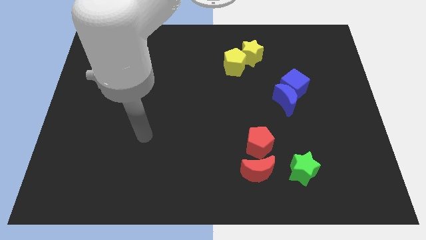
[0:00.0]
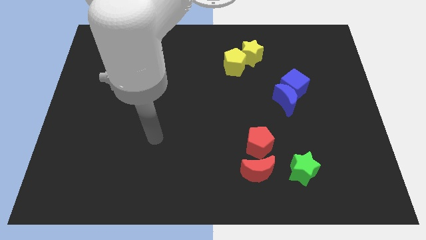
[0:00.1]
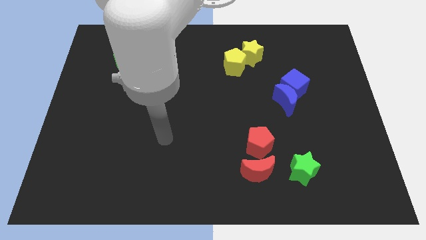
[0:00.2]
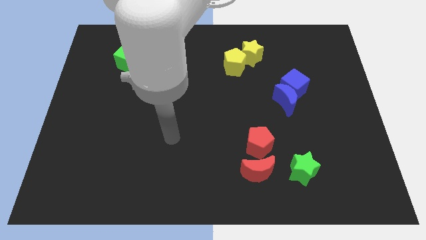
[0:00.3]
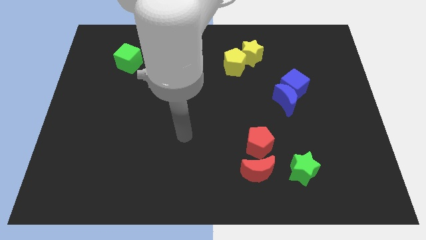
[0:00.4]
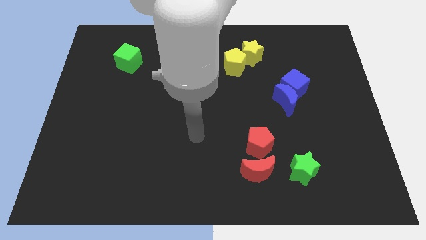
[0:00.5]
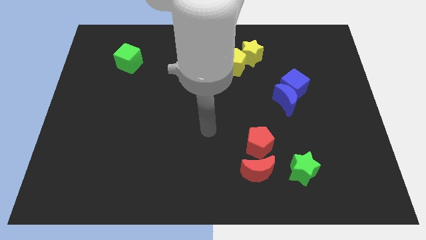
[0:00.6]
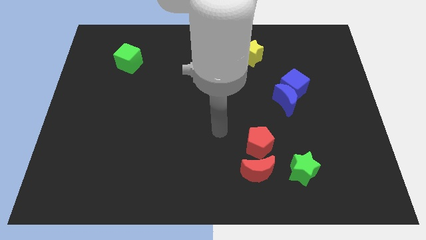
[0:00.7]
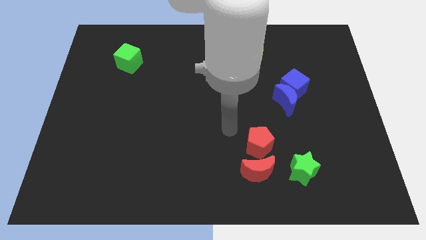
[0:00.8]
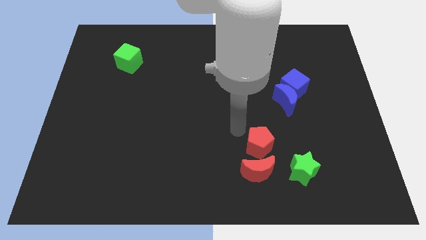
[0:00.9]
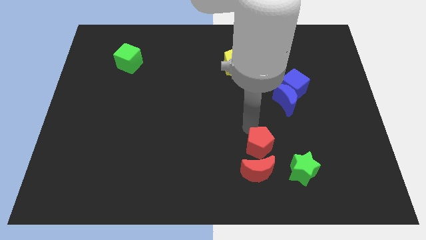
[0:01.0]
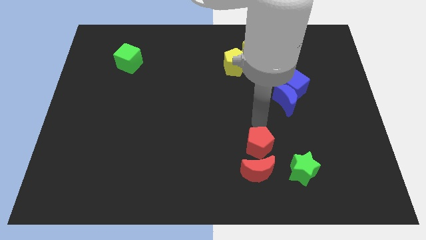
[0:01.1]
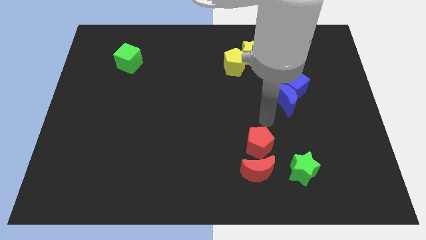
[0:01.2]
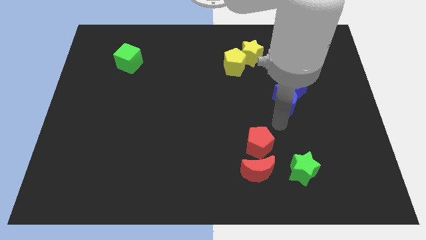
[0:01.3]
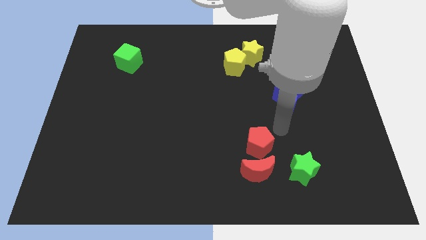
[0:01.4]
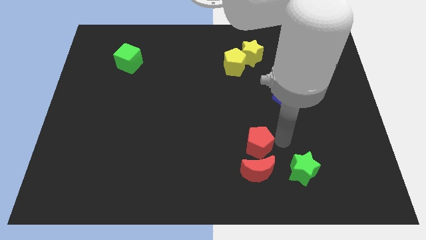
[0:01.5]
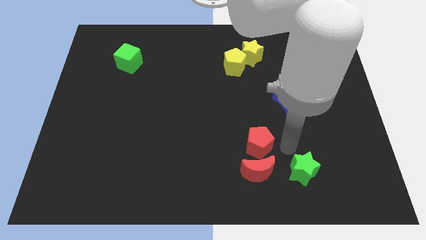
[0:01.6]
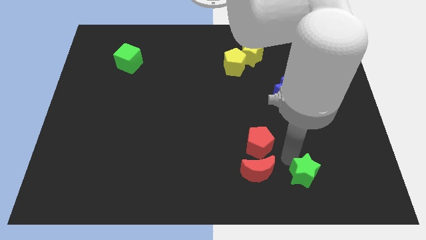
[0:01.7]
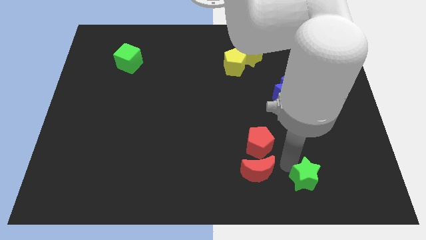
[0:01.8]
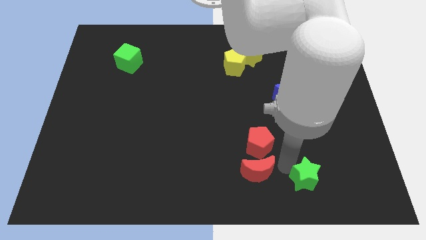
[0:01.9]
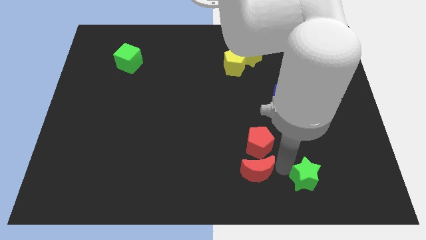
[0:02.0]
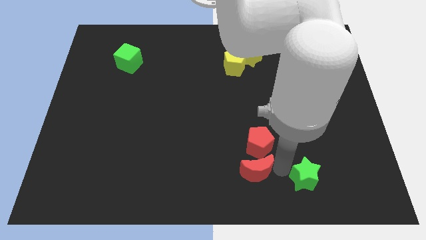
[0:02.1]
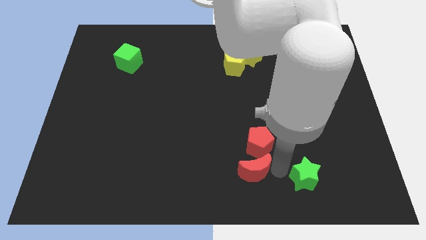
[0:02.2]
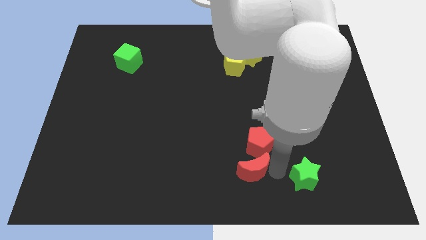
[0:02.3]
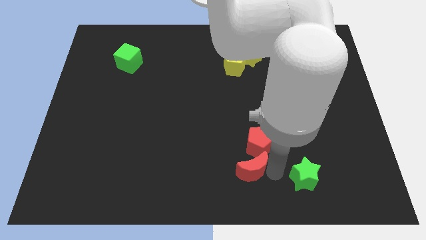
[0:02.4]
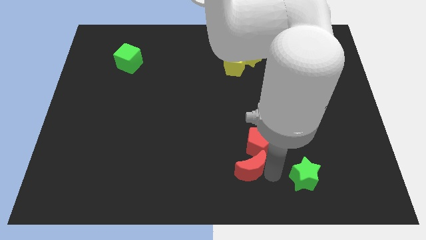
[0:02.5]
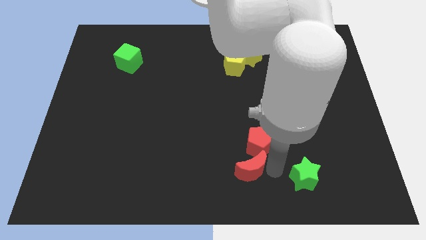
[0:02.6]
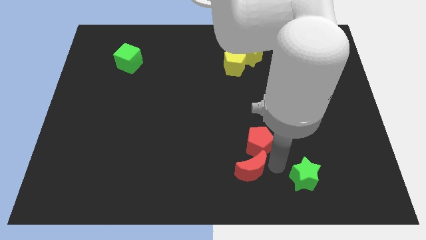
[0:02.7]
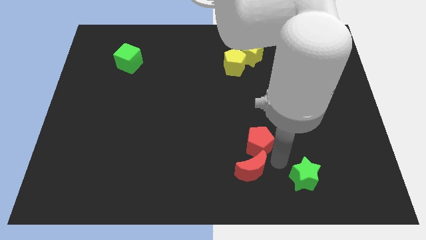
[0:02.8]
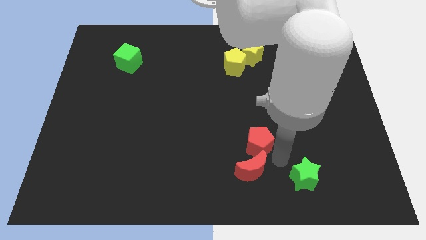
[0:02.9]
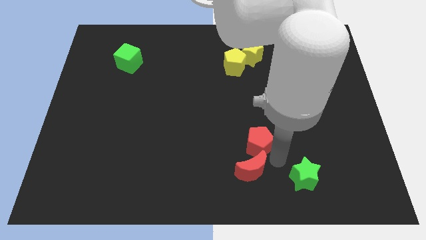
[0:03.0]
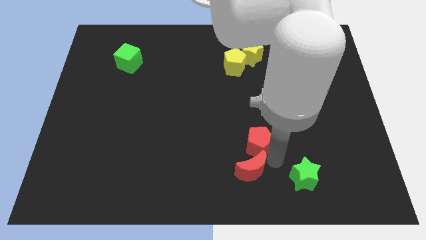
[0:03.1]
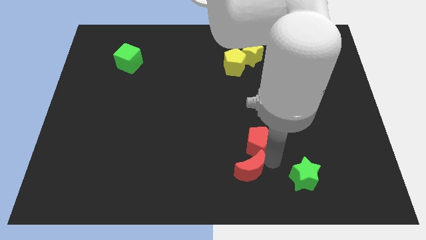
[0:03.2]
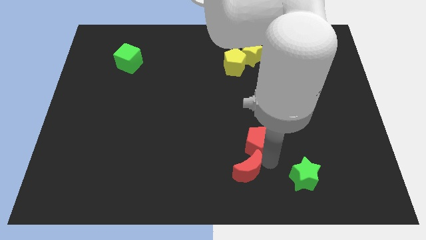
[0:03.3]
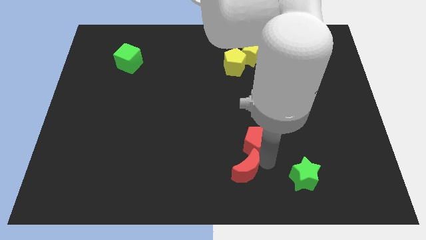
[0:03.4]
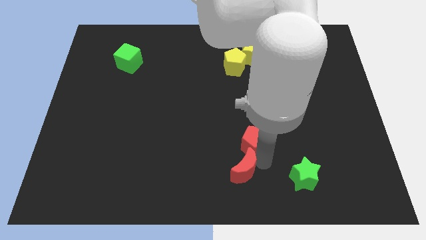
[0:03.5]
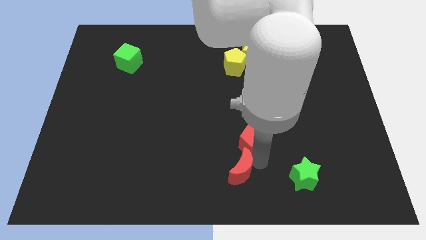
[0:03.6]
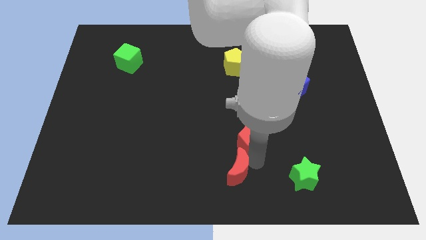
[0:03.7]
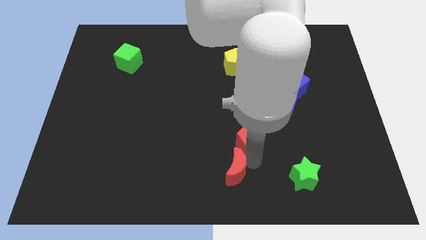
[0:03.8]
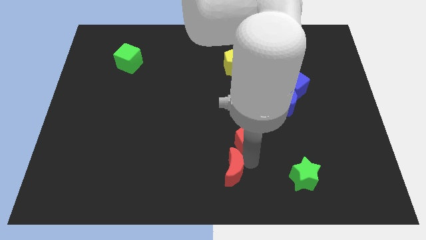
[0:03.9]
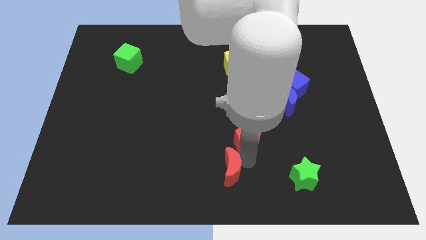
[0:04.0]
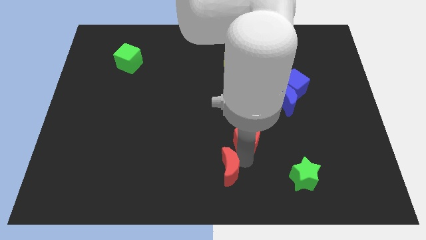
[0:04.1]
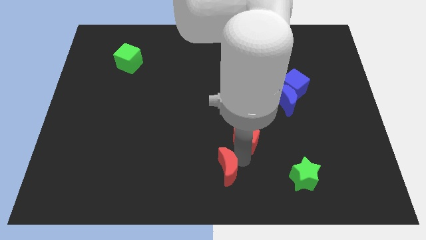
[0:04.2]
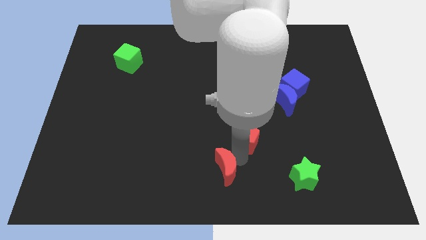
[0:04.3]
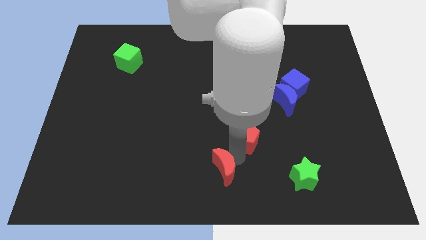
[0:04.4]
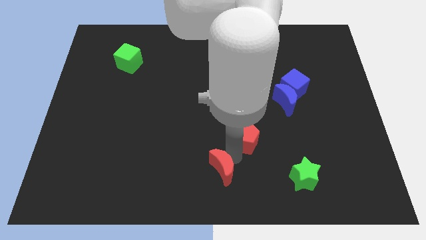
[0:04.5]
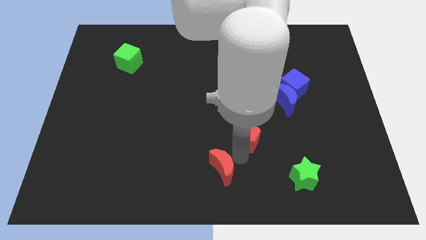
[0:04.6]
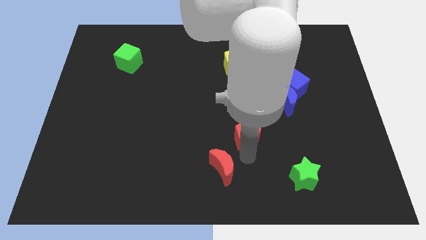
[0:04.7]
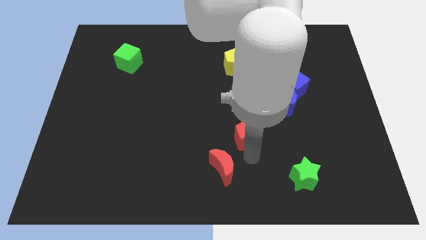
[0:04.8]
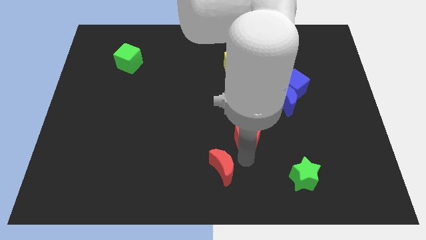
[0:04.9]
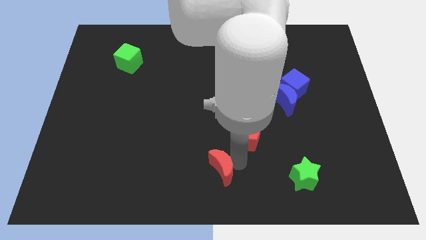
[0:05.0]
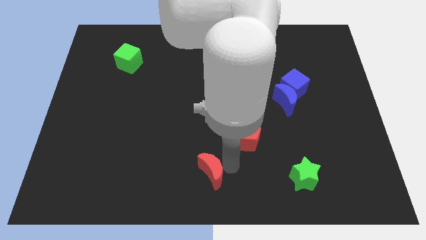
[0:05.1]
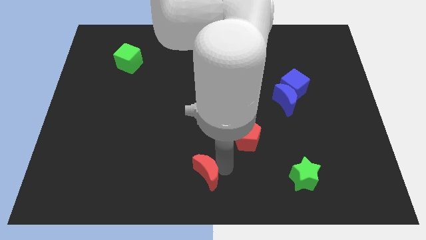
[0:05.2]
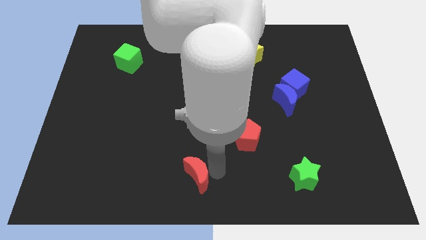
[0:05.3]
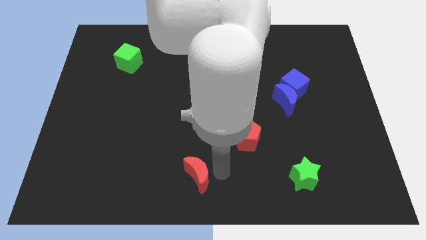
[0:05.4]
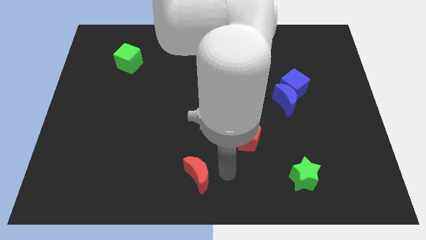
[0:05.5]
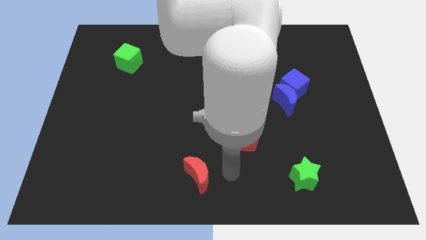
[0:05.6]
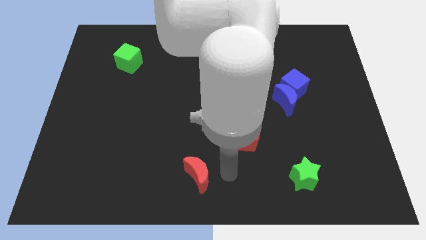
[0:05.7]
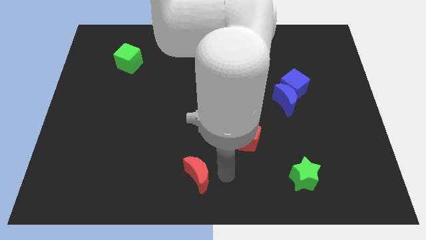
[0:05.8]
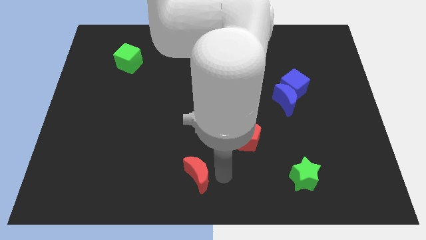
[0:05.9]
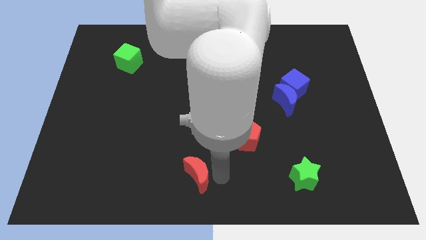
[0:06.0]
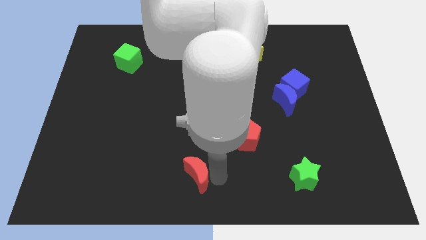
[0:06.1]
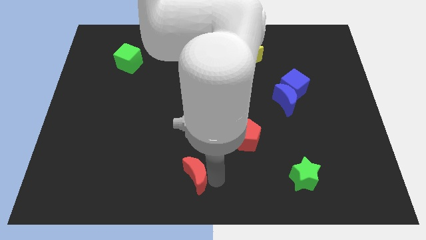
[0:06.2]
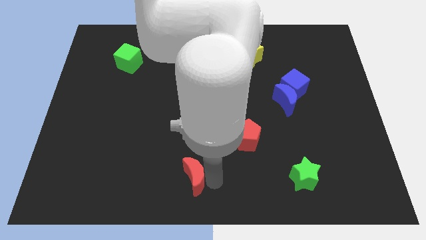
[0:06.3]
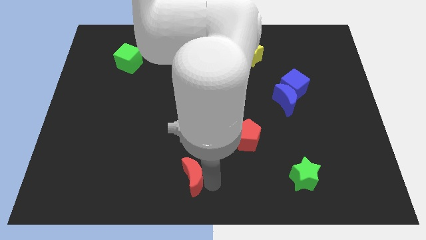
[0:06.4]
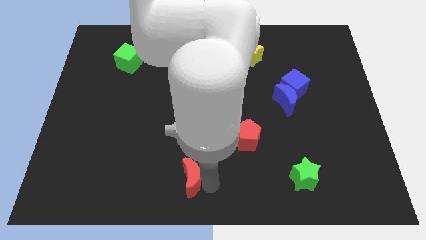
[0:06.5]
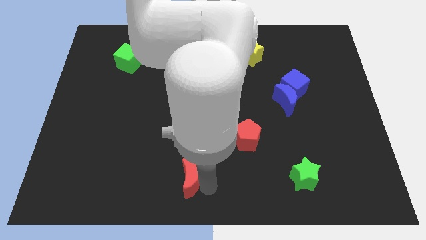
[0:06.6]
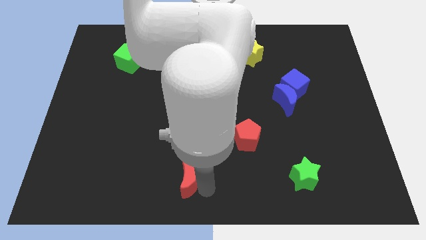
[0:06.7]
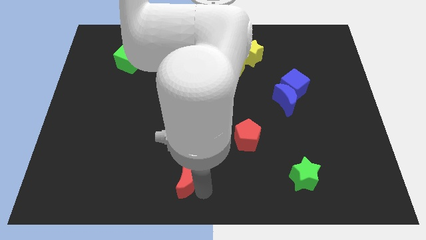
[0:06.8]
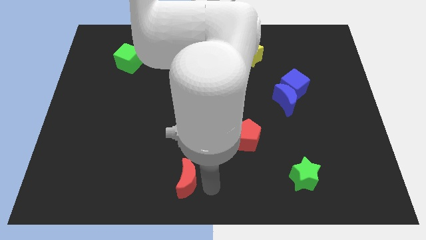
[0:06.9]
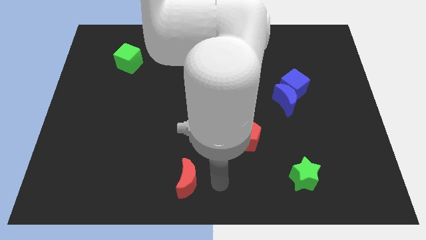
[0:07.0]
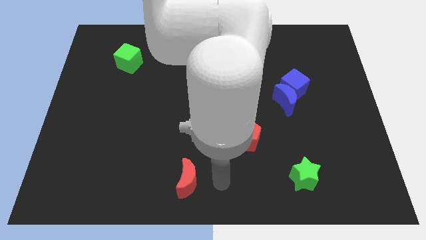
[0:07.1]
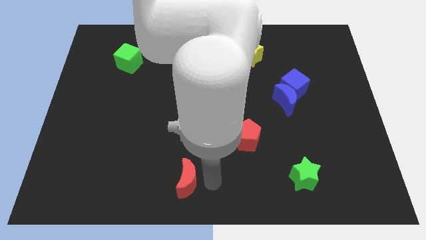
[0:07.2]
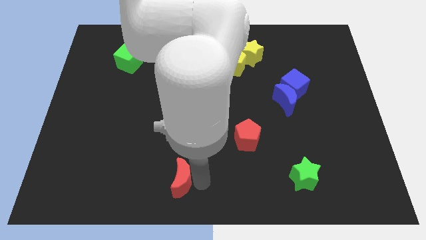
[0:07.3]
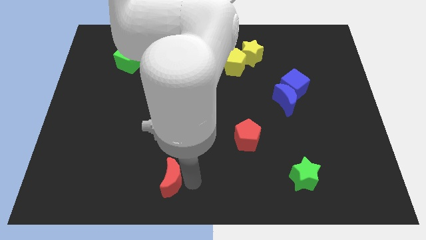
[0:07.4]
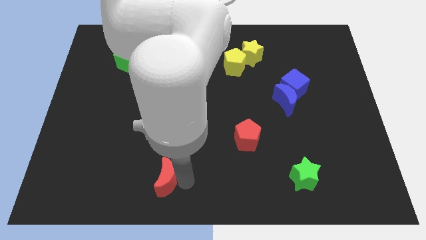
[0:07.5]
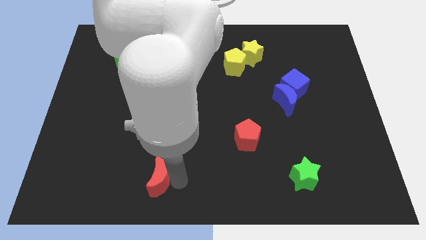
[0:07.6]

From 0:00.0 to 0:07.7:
move the red moon to the left

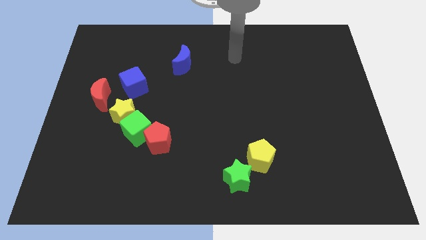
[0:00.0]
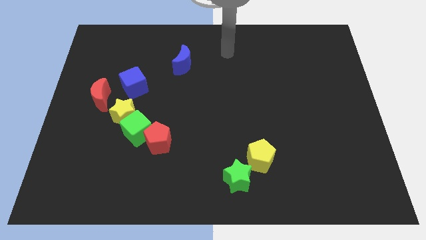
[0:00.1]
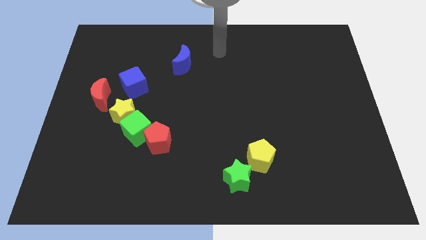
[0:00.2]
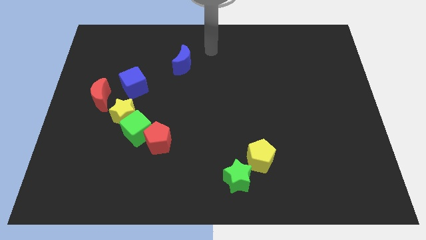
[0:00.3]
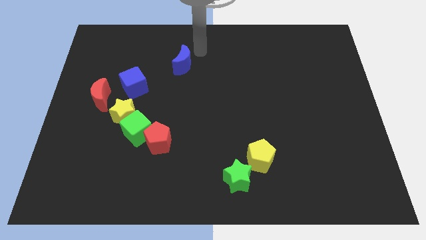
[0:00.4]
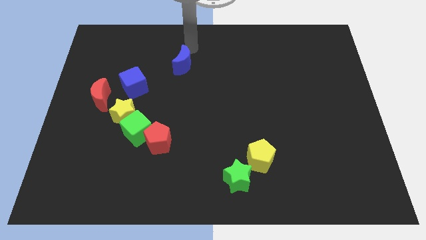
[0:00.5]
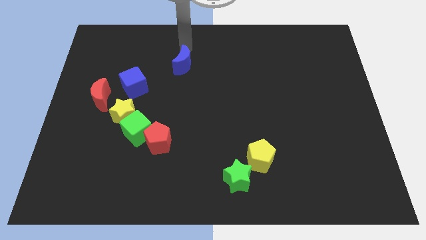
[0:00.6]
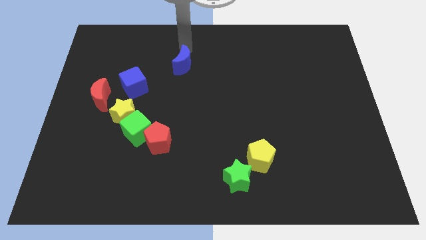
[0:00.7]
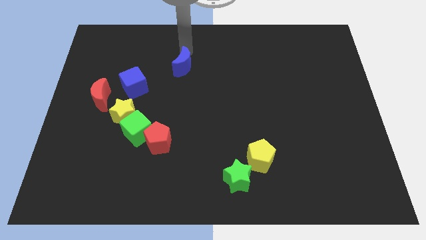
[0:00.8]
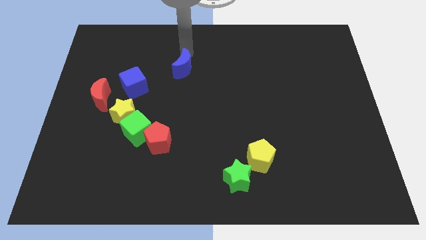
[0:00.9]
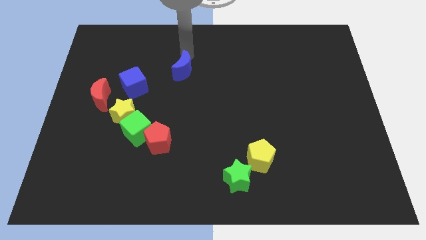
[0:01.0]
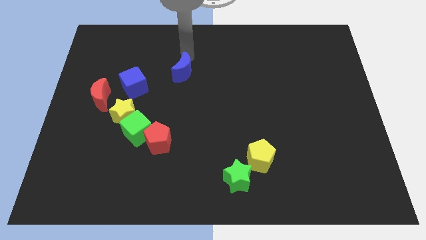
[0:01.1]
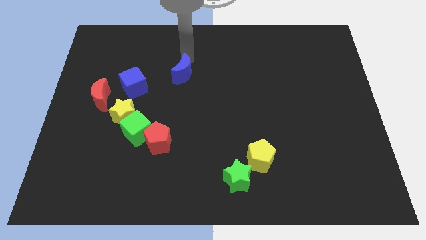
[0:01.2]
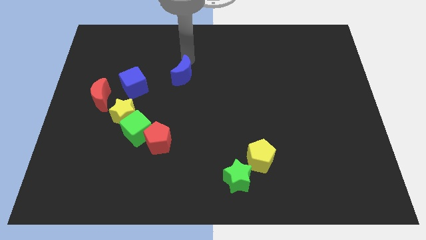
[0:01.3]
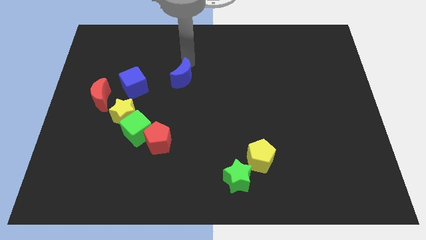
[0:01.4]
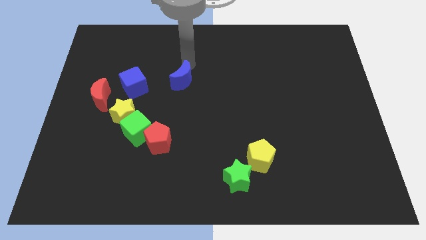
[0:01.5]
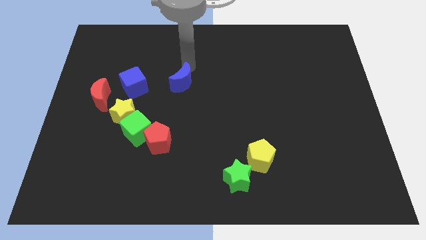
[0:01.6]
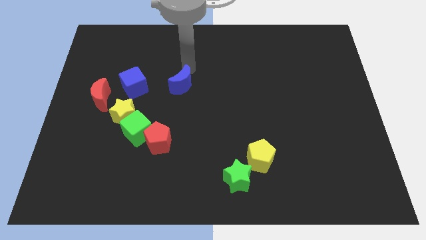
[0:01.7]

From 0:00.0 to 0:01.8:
move the blue moon a little downwards
